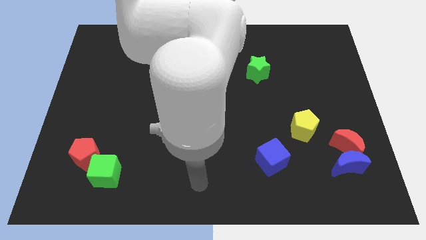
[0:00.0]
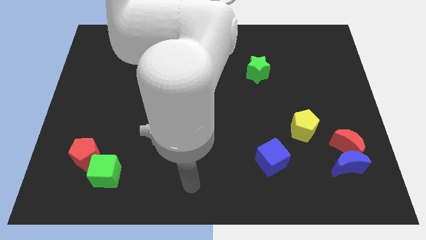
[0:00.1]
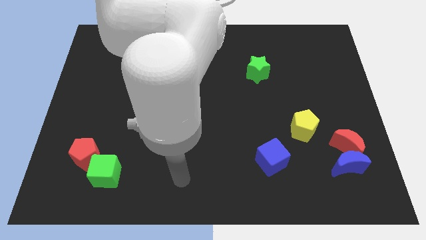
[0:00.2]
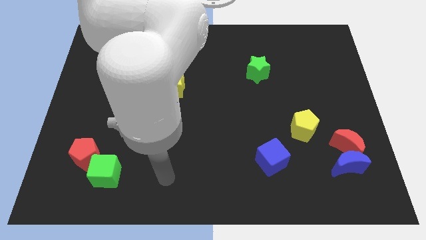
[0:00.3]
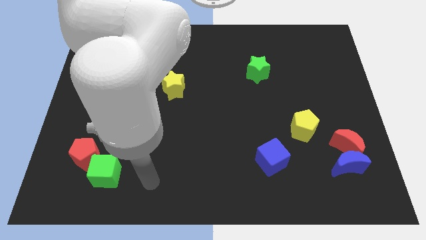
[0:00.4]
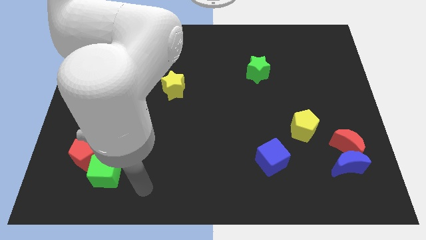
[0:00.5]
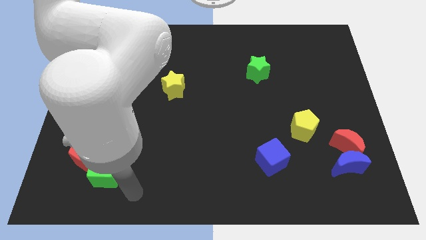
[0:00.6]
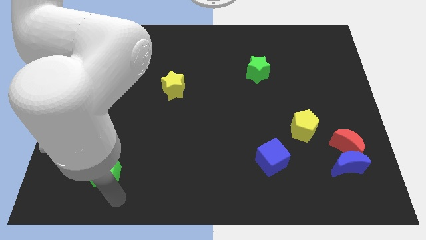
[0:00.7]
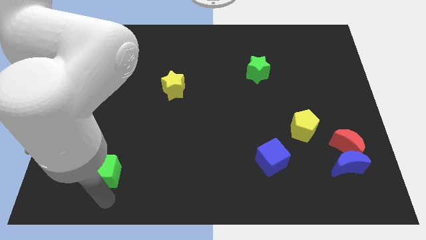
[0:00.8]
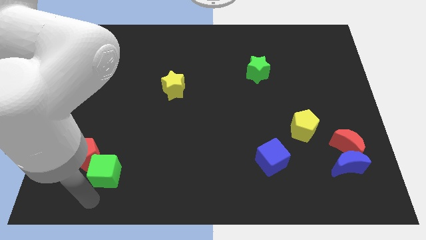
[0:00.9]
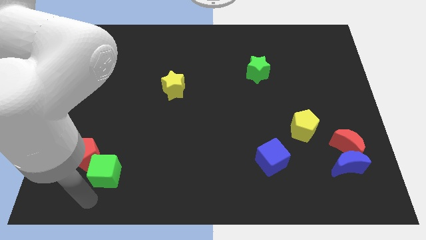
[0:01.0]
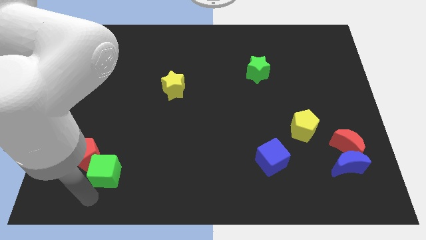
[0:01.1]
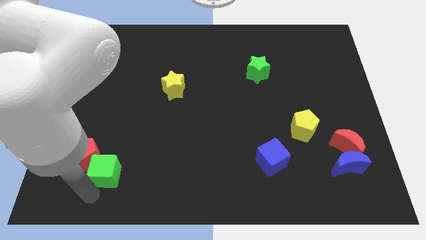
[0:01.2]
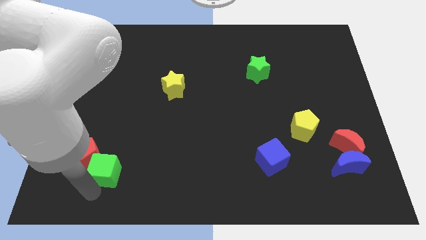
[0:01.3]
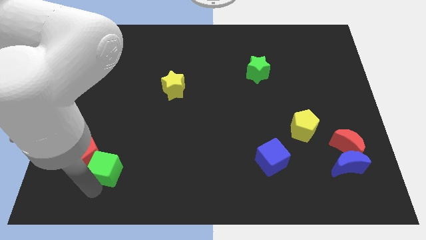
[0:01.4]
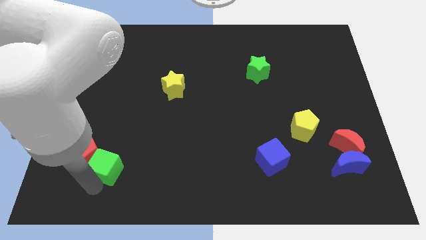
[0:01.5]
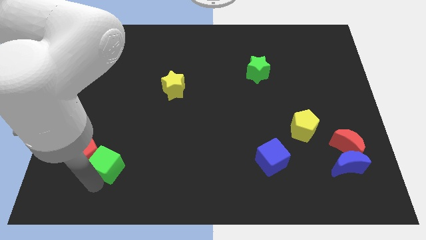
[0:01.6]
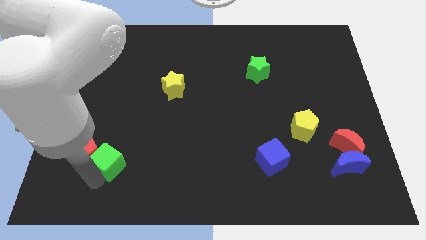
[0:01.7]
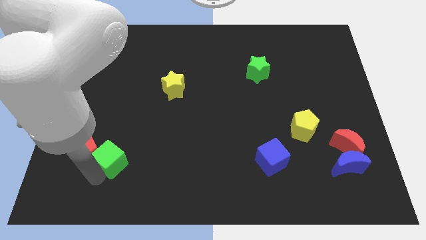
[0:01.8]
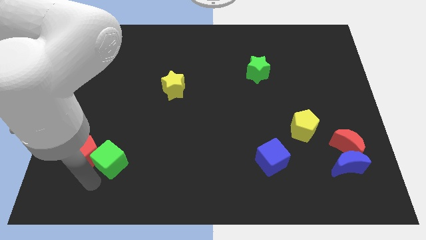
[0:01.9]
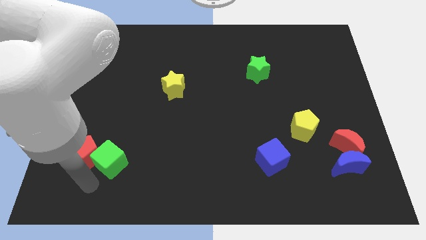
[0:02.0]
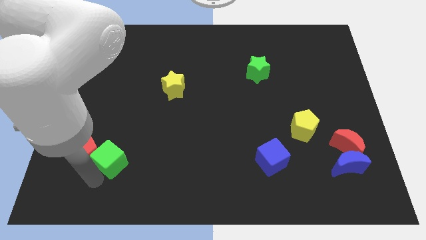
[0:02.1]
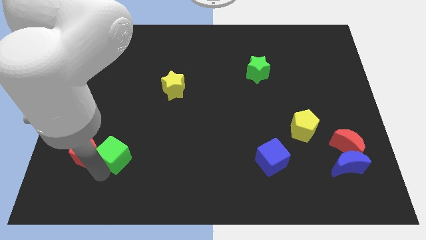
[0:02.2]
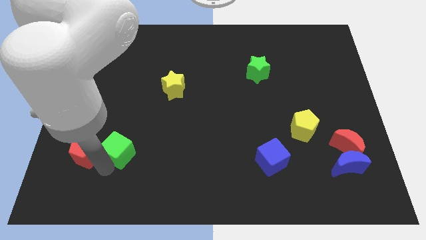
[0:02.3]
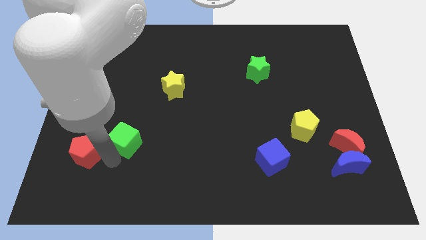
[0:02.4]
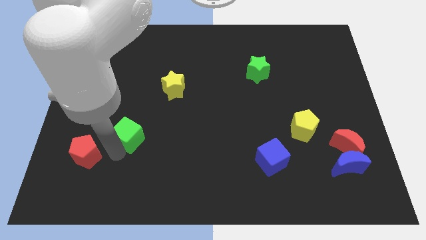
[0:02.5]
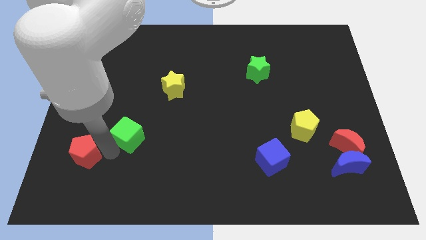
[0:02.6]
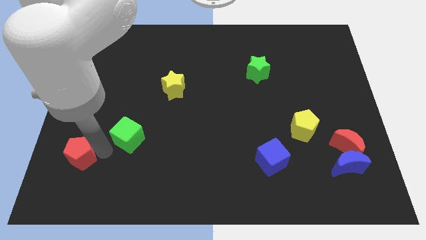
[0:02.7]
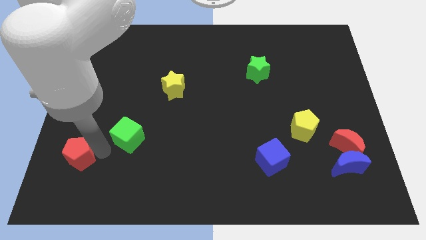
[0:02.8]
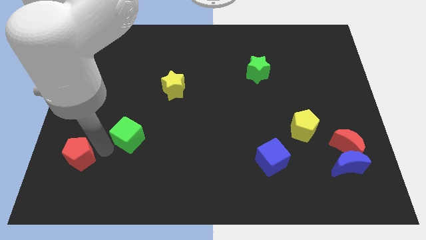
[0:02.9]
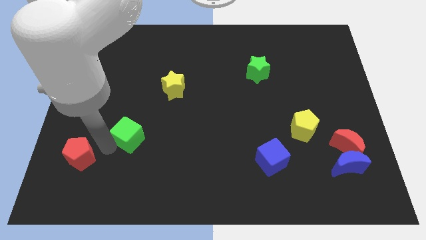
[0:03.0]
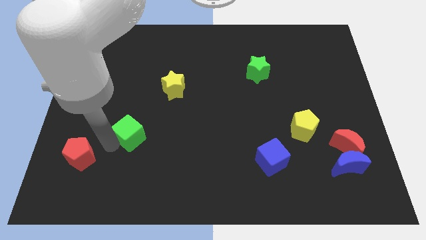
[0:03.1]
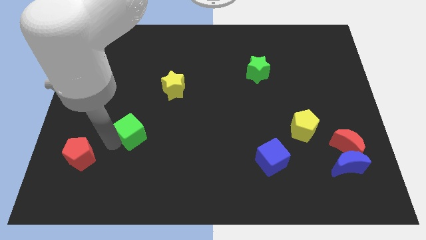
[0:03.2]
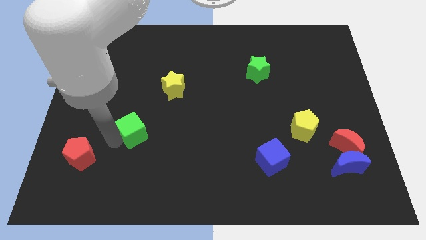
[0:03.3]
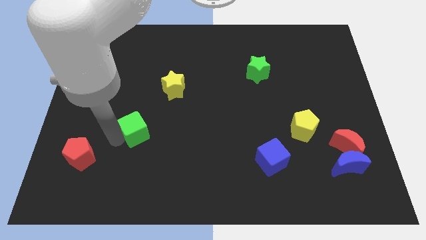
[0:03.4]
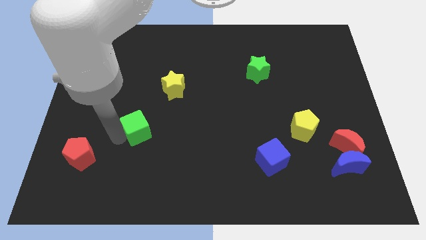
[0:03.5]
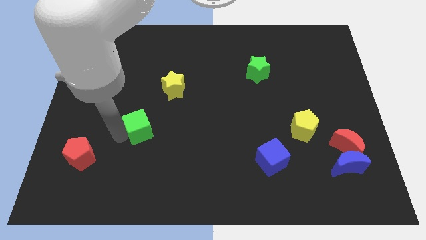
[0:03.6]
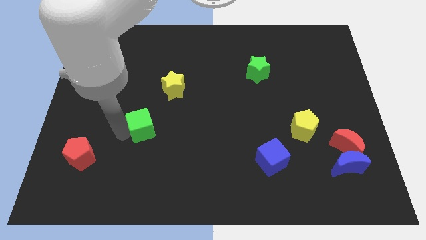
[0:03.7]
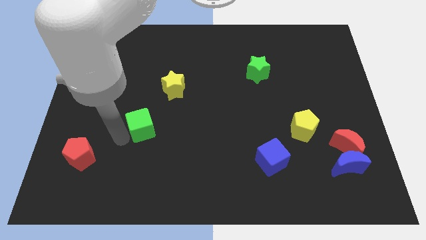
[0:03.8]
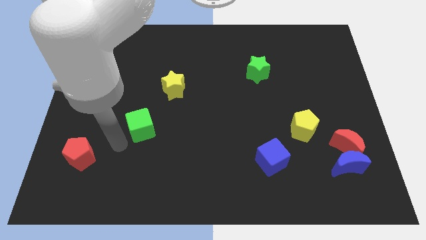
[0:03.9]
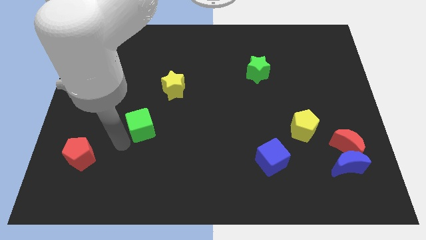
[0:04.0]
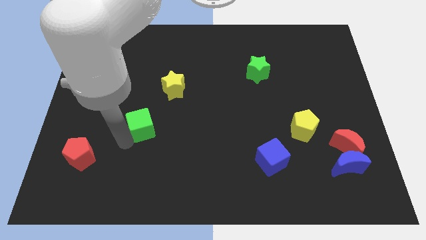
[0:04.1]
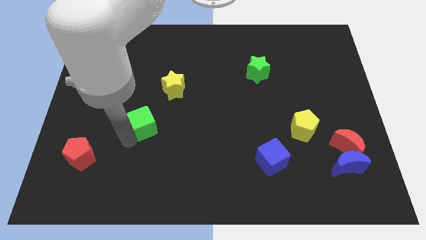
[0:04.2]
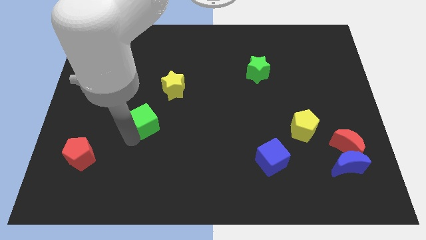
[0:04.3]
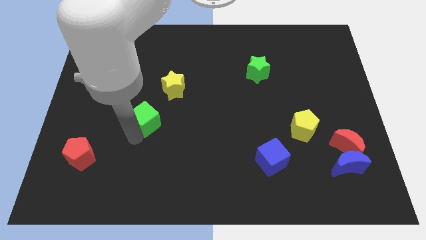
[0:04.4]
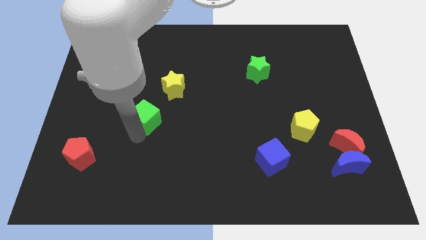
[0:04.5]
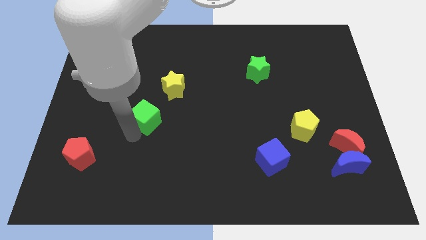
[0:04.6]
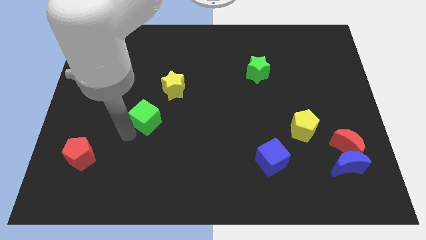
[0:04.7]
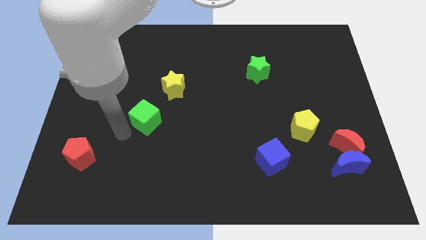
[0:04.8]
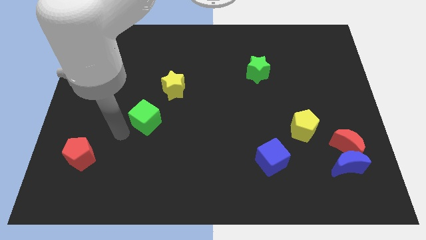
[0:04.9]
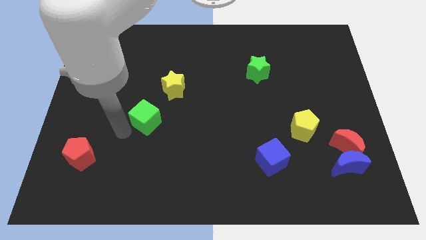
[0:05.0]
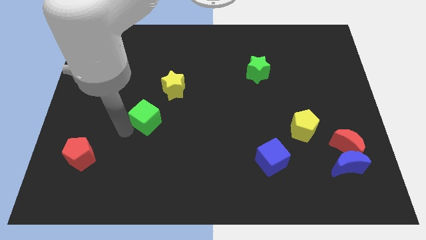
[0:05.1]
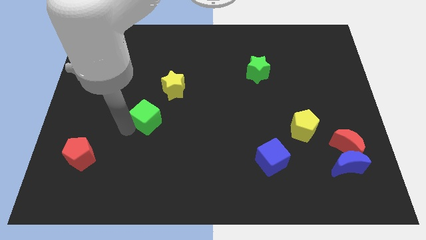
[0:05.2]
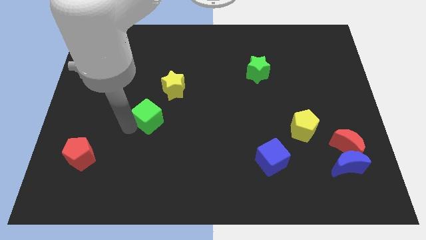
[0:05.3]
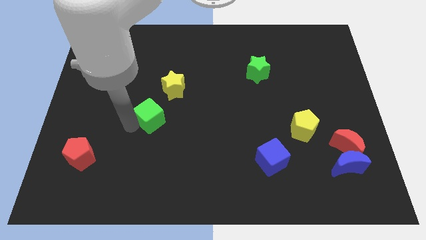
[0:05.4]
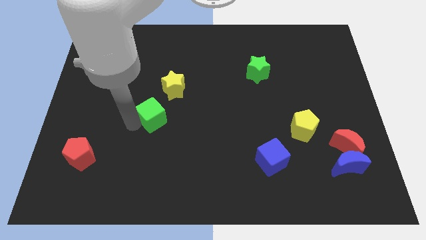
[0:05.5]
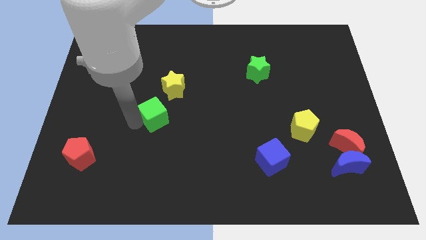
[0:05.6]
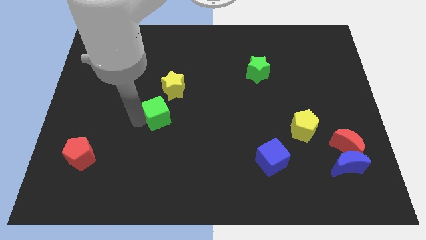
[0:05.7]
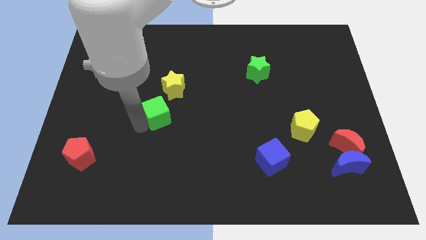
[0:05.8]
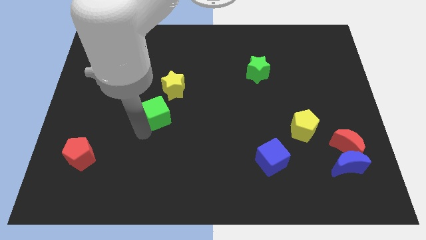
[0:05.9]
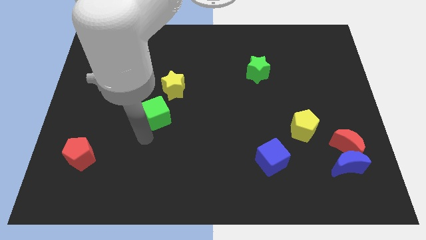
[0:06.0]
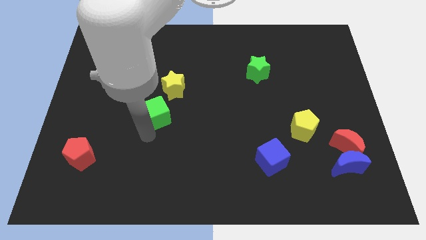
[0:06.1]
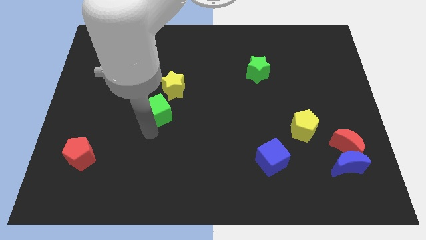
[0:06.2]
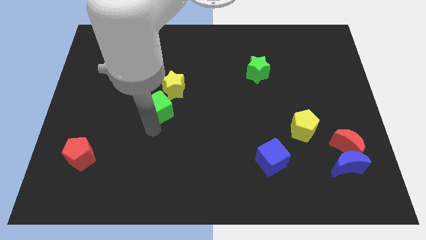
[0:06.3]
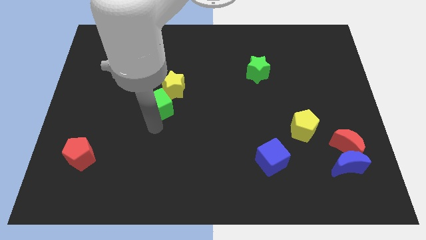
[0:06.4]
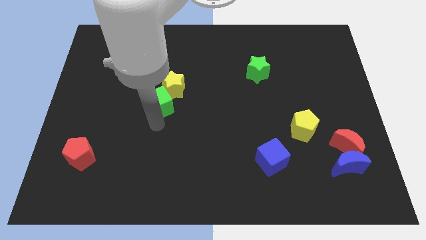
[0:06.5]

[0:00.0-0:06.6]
put the green cube next to the yellow star

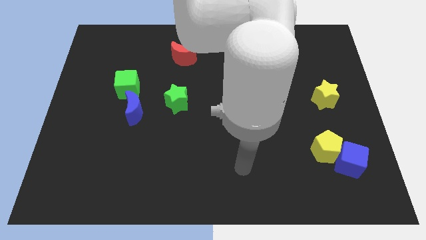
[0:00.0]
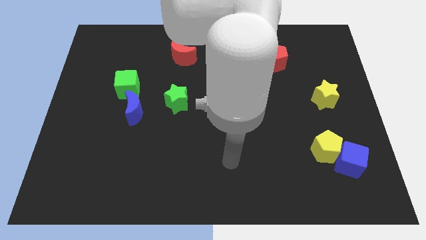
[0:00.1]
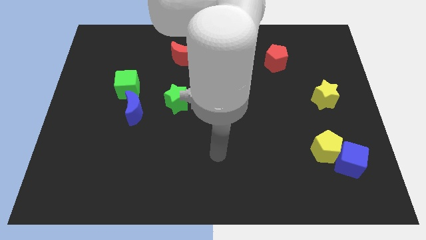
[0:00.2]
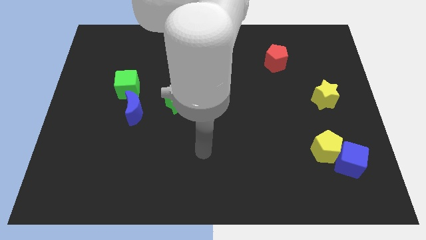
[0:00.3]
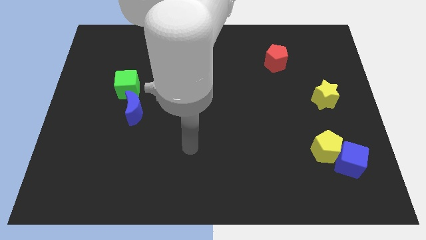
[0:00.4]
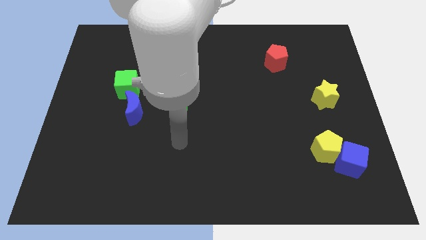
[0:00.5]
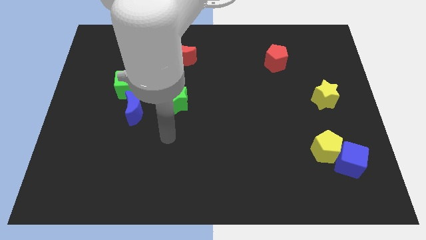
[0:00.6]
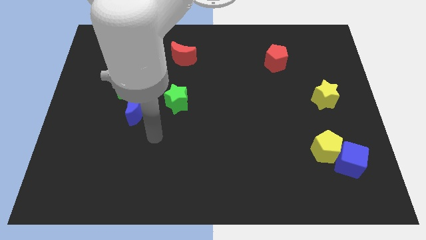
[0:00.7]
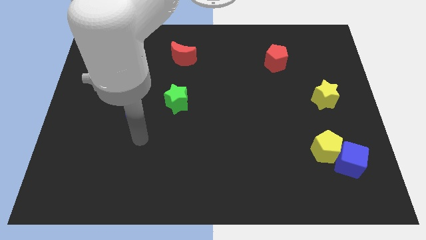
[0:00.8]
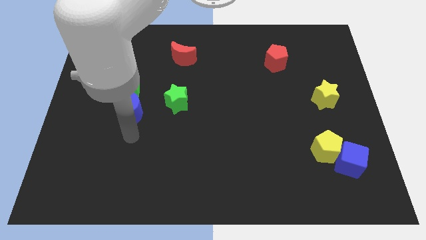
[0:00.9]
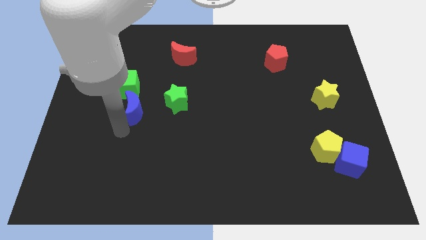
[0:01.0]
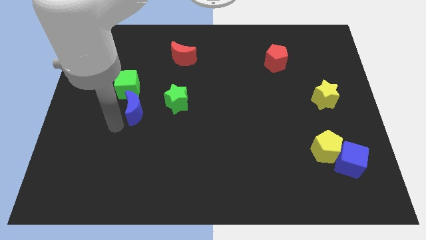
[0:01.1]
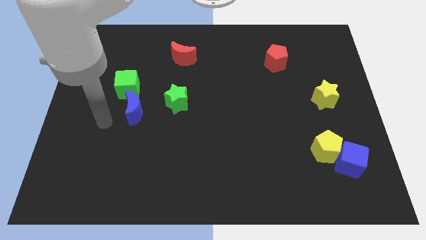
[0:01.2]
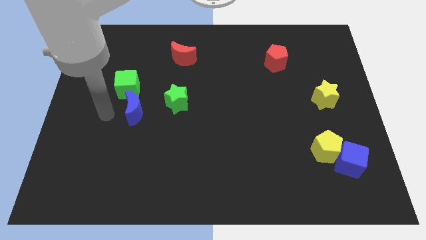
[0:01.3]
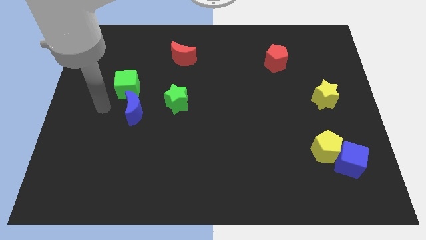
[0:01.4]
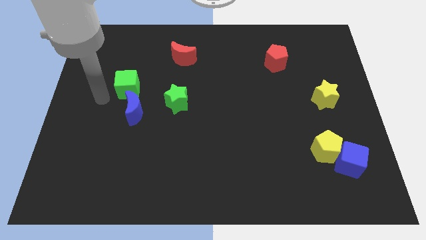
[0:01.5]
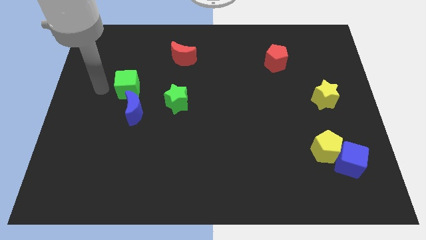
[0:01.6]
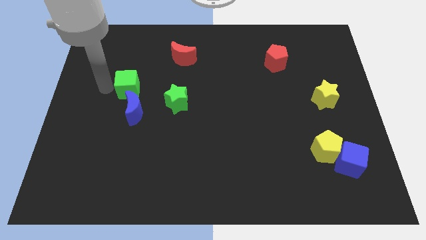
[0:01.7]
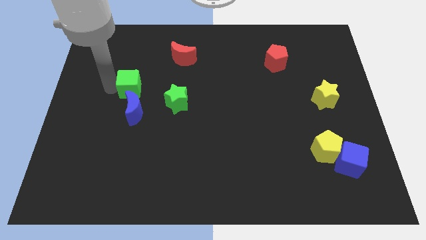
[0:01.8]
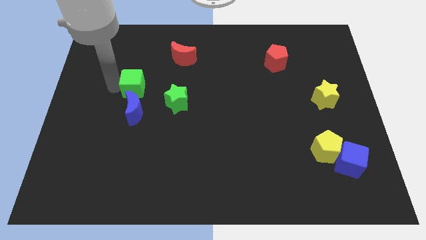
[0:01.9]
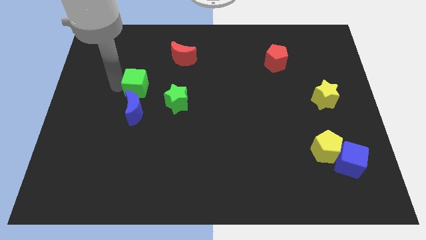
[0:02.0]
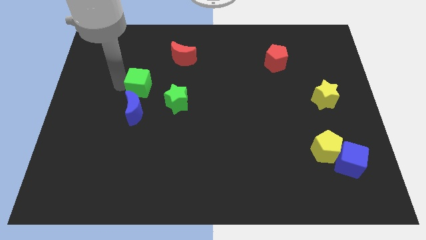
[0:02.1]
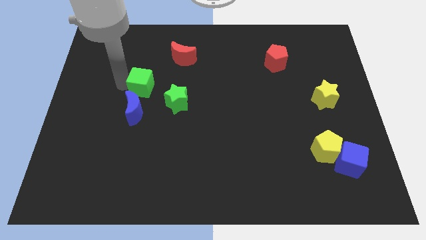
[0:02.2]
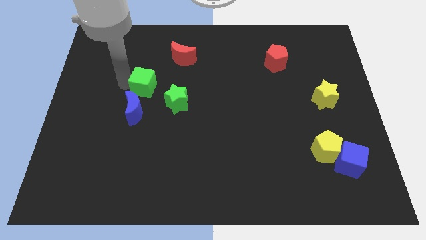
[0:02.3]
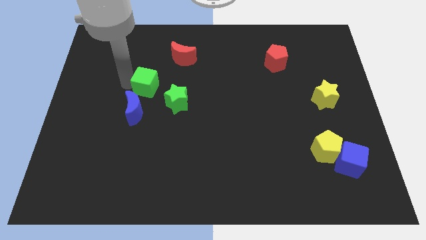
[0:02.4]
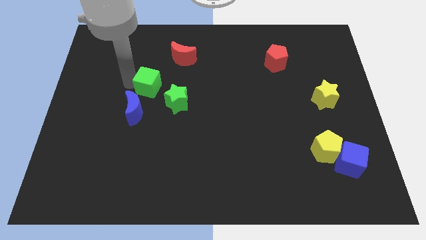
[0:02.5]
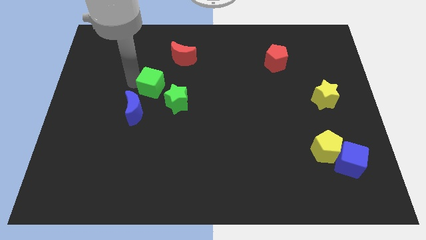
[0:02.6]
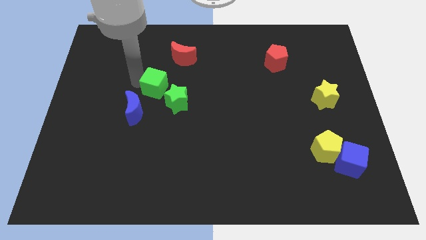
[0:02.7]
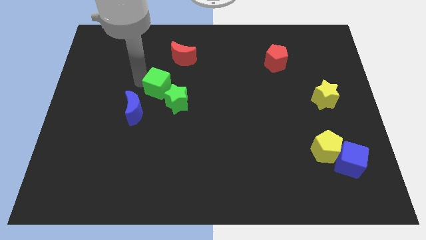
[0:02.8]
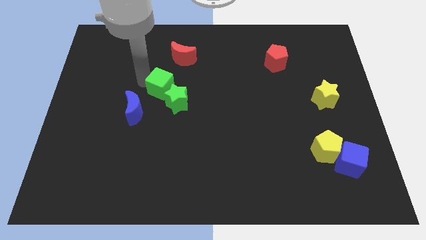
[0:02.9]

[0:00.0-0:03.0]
put the green cube towards the green star
